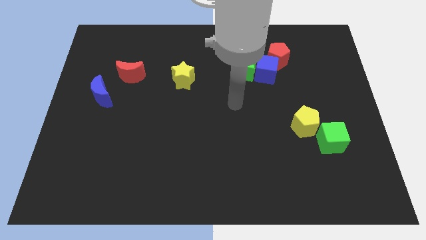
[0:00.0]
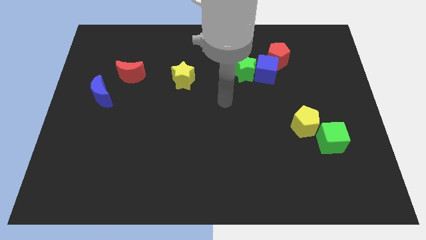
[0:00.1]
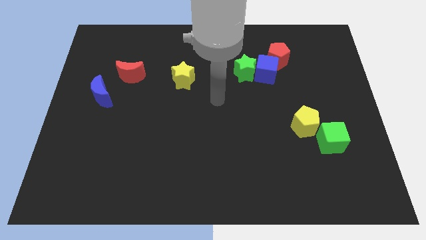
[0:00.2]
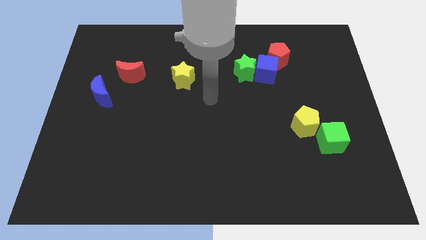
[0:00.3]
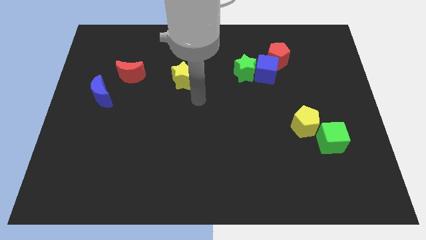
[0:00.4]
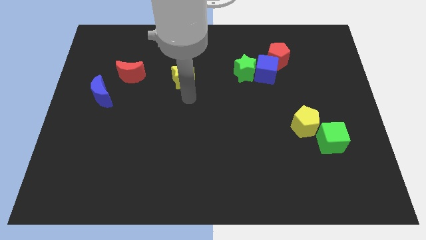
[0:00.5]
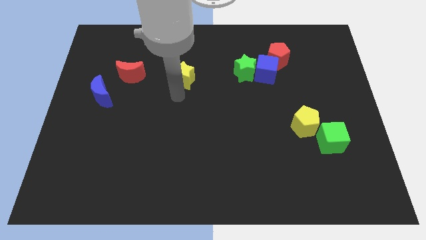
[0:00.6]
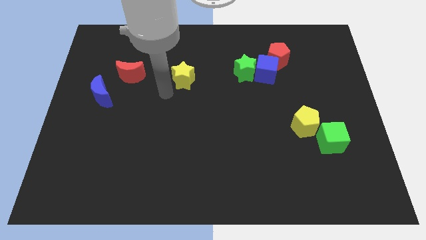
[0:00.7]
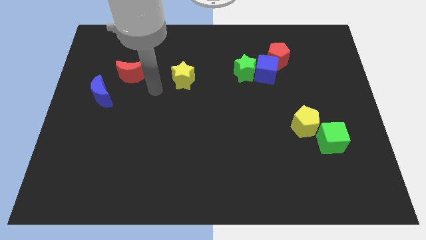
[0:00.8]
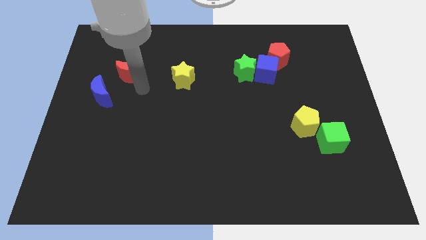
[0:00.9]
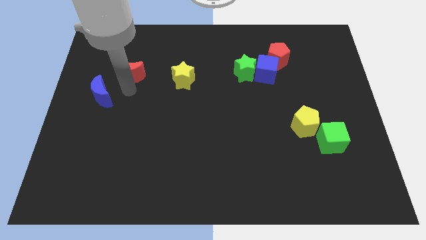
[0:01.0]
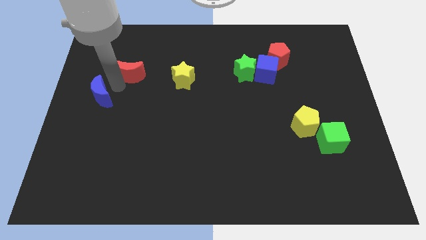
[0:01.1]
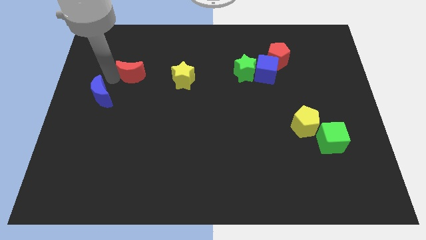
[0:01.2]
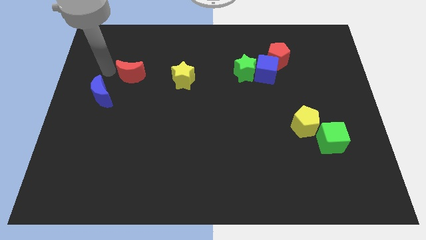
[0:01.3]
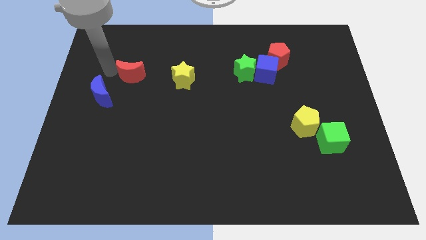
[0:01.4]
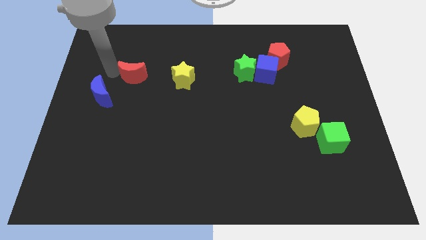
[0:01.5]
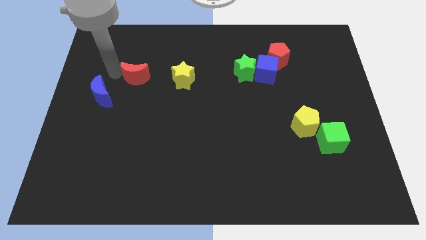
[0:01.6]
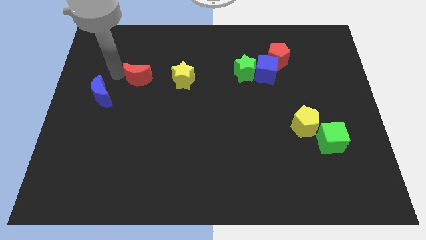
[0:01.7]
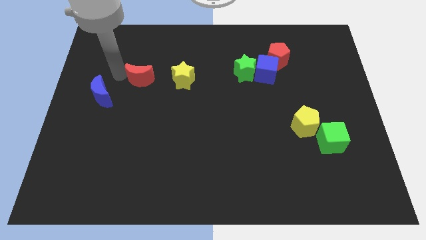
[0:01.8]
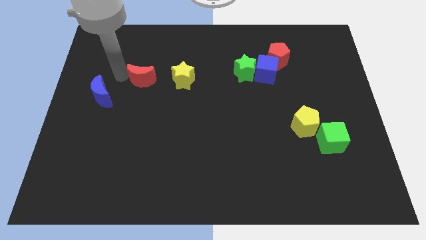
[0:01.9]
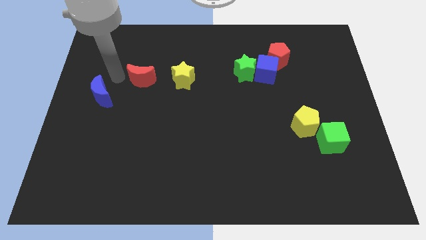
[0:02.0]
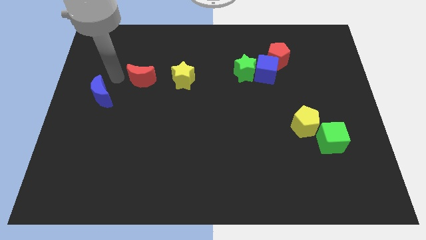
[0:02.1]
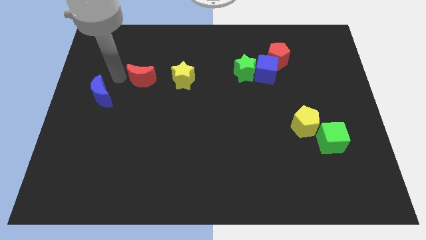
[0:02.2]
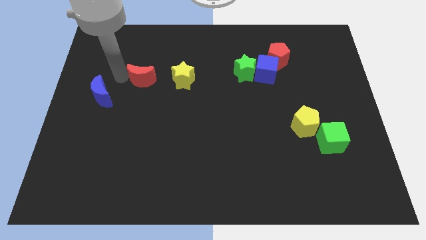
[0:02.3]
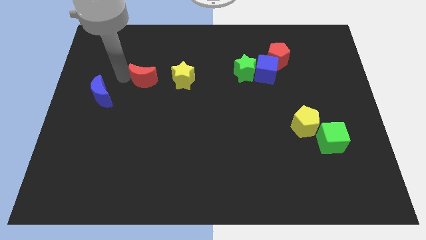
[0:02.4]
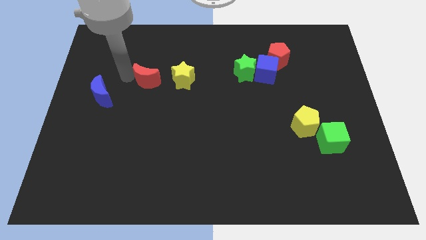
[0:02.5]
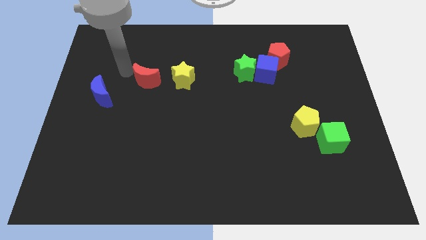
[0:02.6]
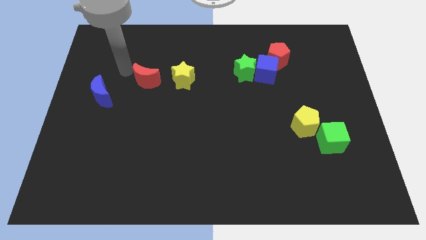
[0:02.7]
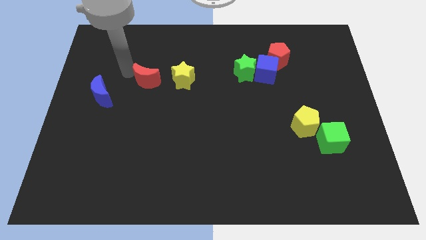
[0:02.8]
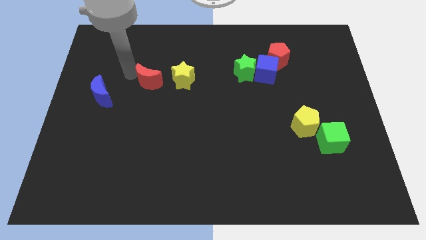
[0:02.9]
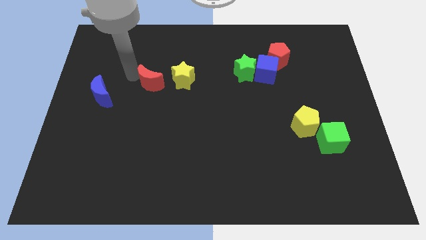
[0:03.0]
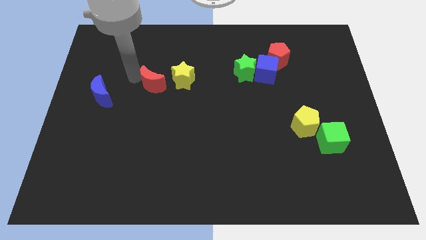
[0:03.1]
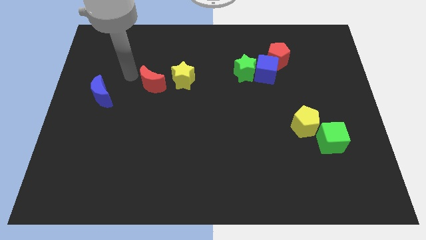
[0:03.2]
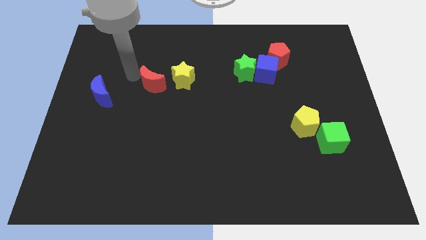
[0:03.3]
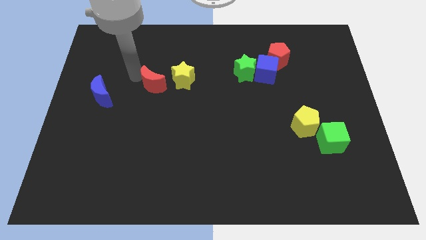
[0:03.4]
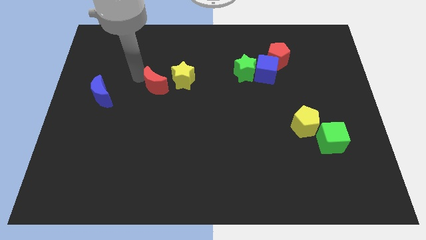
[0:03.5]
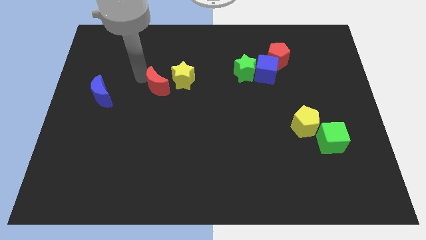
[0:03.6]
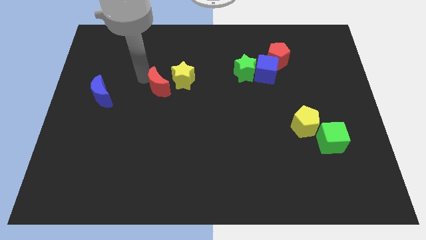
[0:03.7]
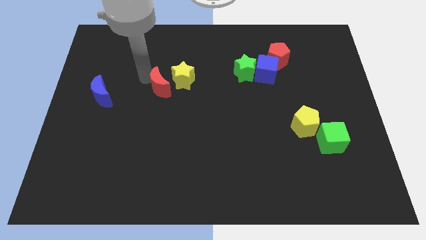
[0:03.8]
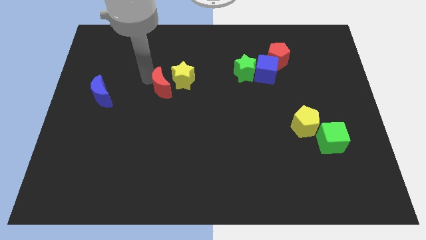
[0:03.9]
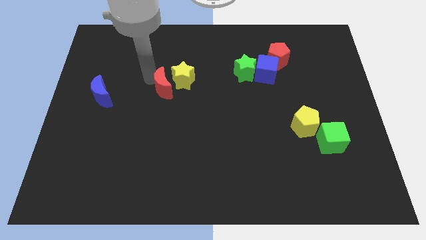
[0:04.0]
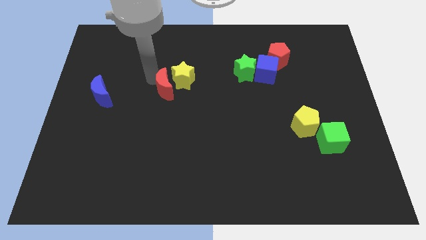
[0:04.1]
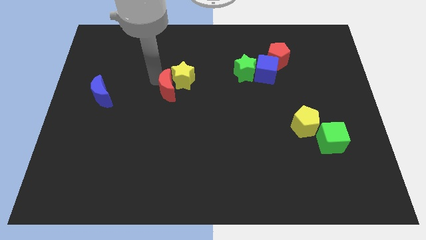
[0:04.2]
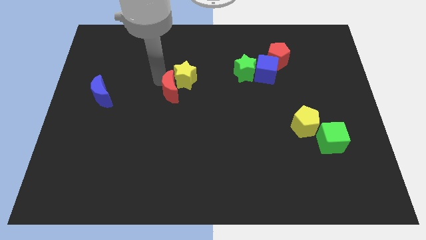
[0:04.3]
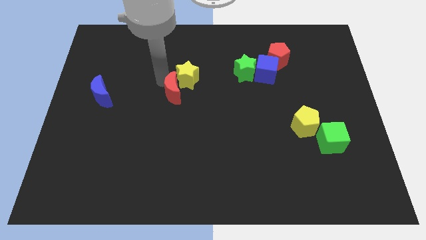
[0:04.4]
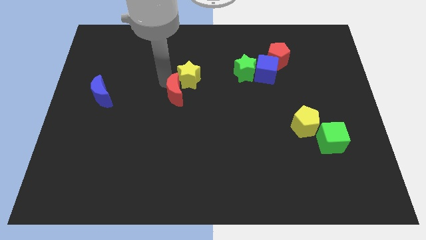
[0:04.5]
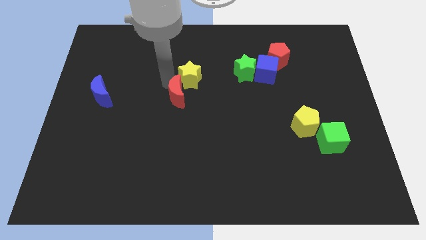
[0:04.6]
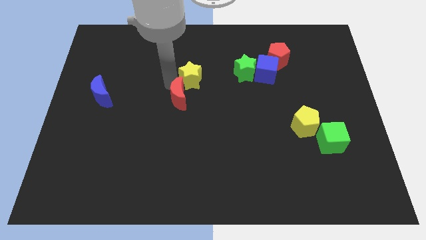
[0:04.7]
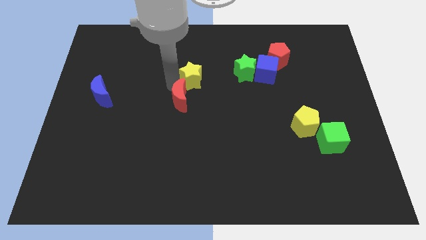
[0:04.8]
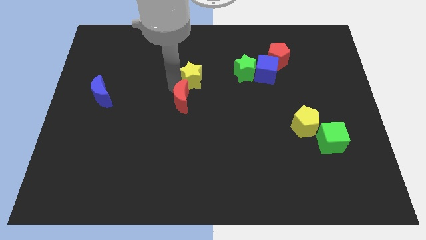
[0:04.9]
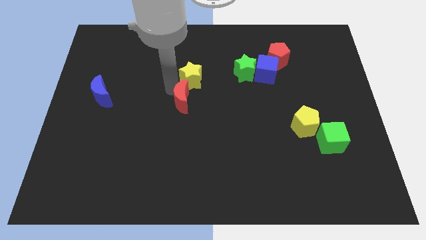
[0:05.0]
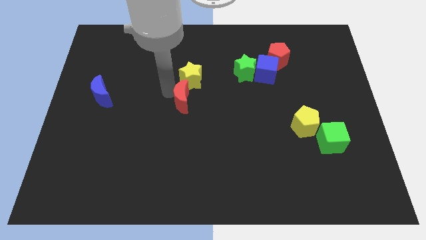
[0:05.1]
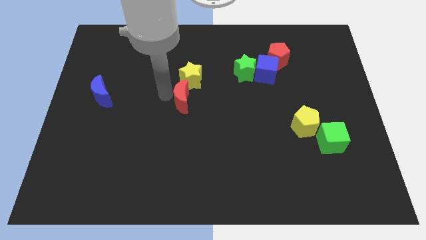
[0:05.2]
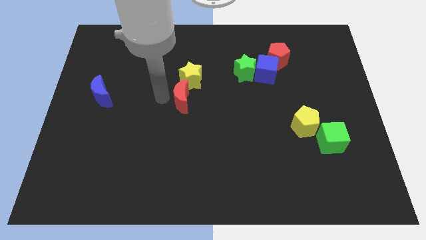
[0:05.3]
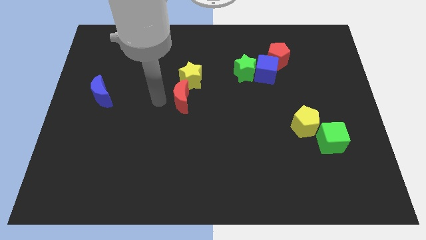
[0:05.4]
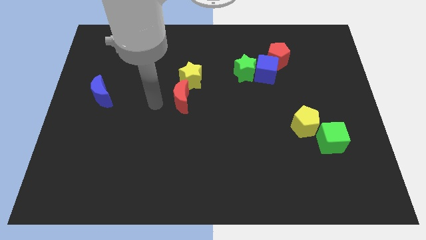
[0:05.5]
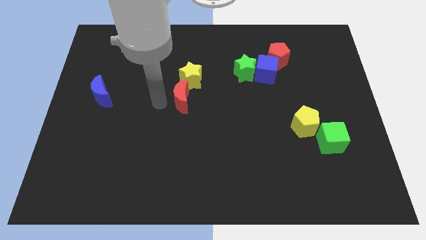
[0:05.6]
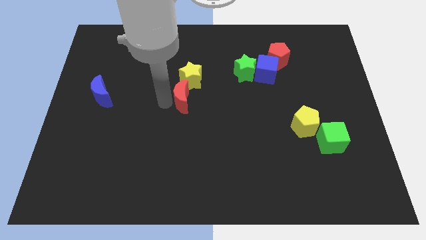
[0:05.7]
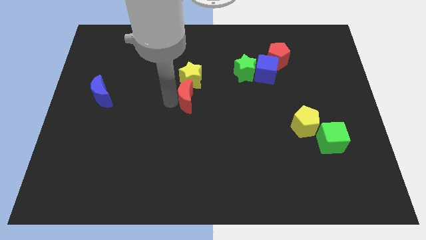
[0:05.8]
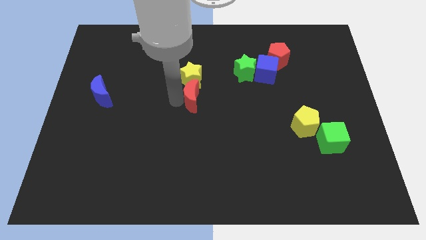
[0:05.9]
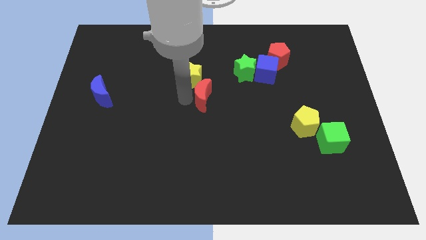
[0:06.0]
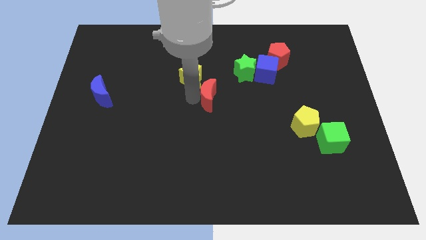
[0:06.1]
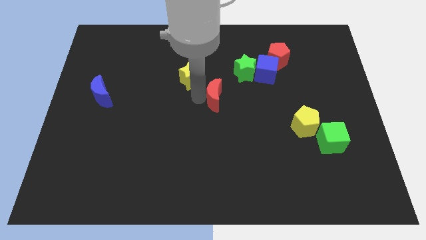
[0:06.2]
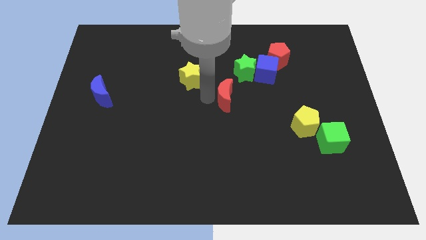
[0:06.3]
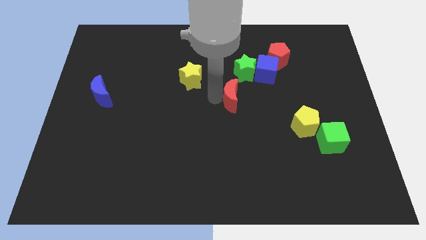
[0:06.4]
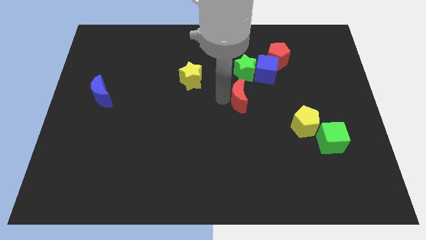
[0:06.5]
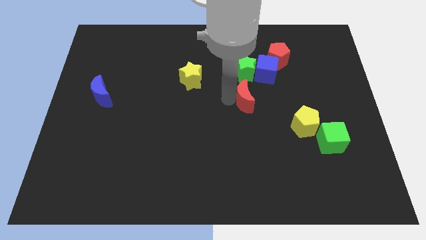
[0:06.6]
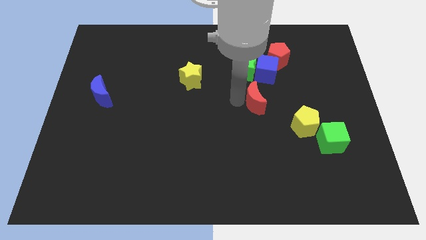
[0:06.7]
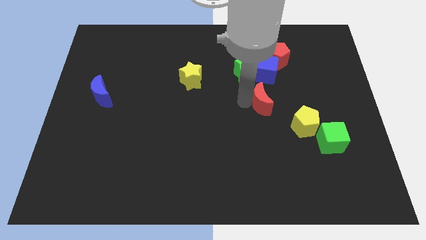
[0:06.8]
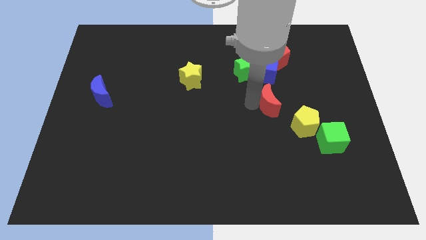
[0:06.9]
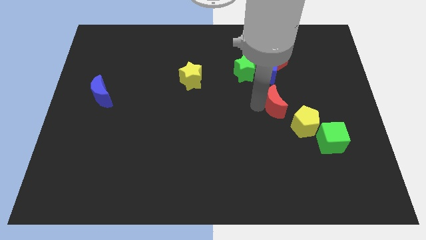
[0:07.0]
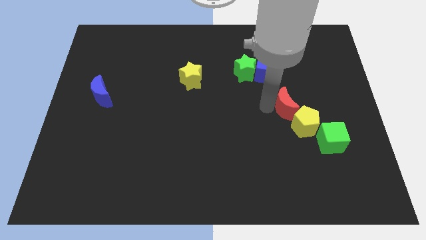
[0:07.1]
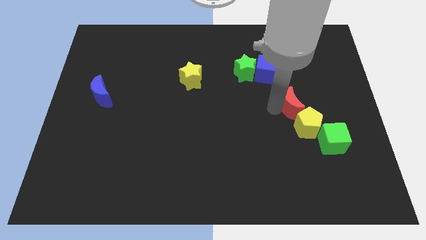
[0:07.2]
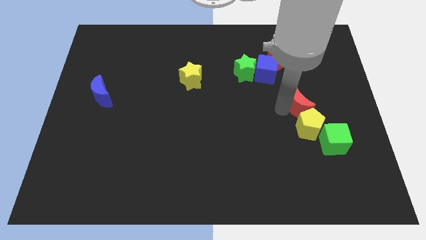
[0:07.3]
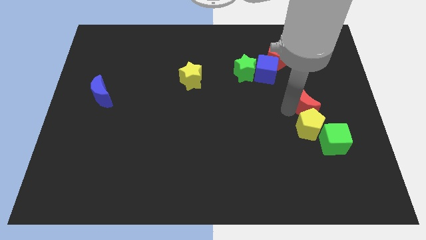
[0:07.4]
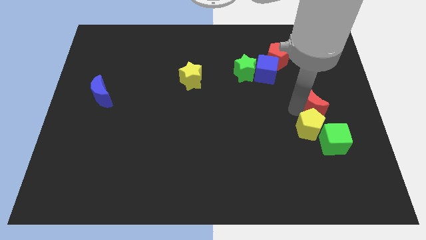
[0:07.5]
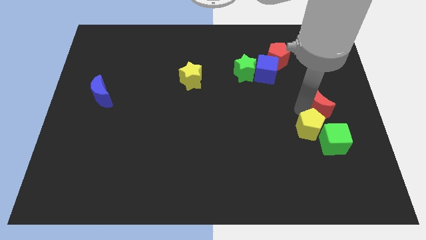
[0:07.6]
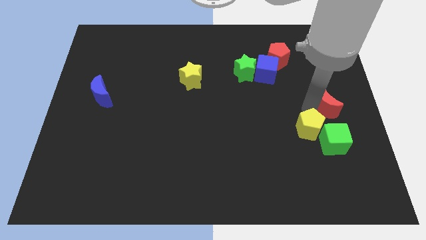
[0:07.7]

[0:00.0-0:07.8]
push the red moon to the right side
